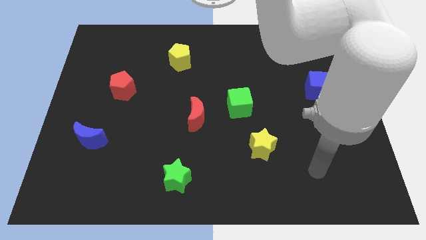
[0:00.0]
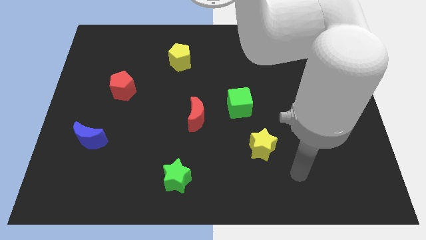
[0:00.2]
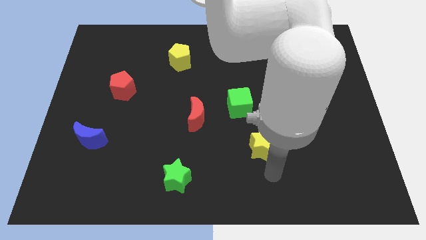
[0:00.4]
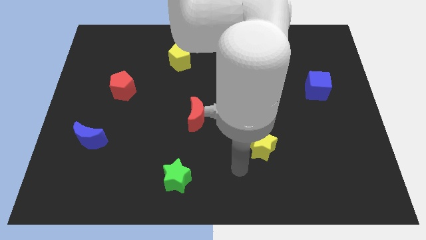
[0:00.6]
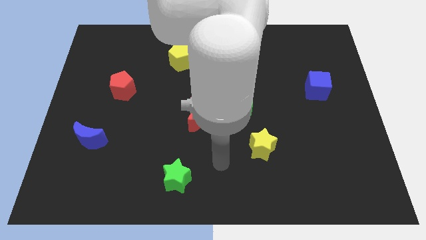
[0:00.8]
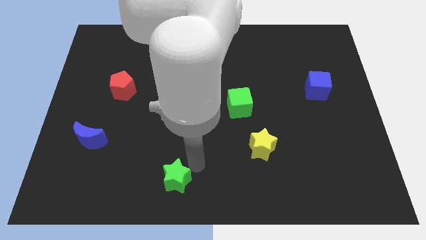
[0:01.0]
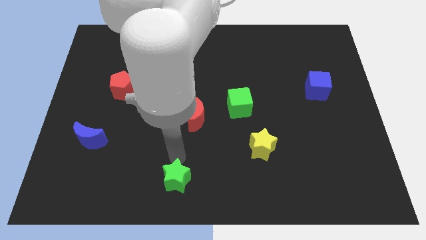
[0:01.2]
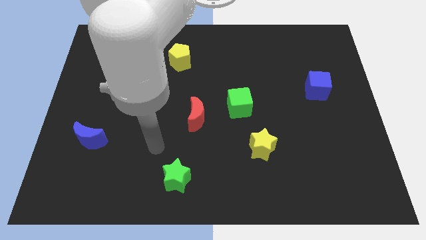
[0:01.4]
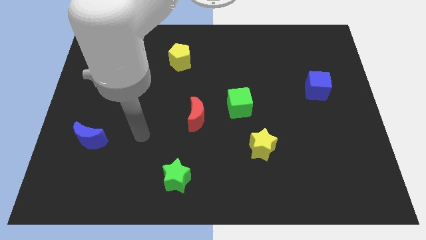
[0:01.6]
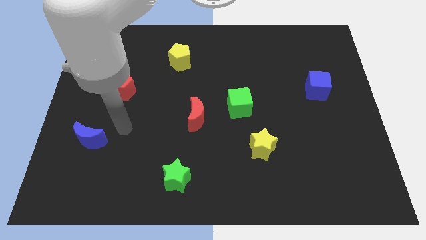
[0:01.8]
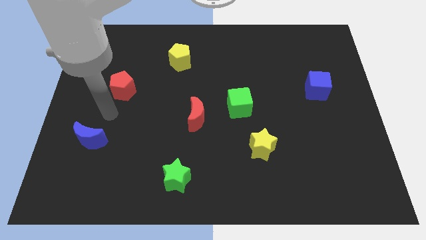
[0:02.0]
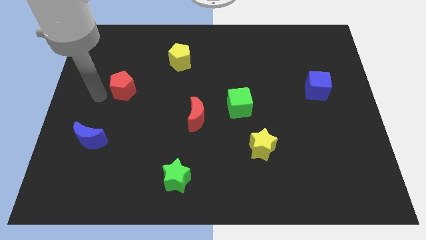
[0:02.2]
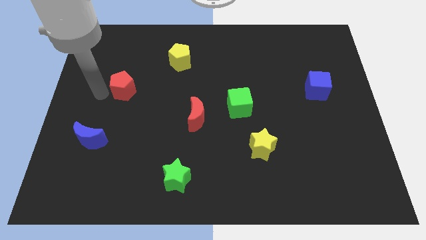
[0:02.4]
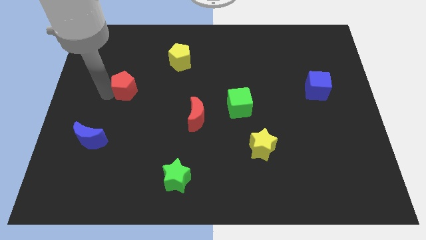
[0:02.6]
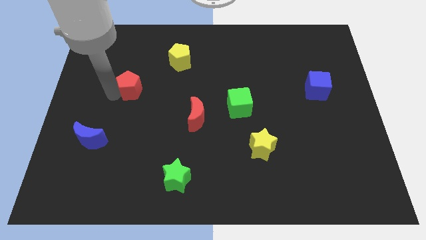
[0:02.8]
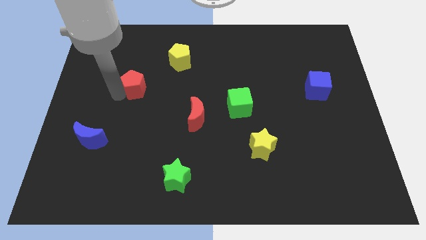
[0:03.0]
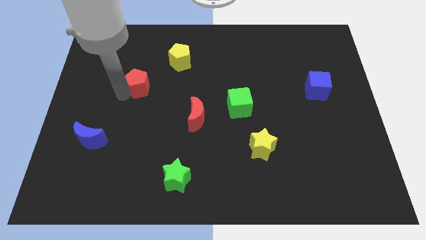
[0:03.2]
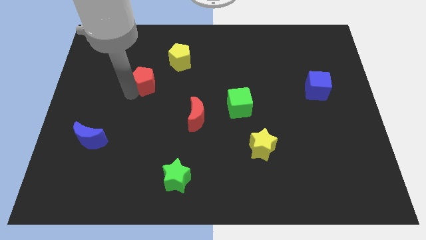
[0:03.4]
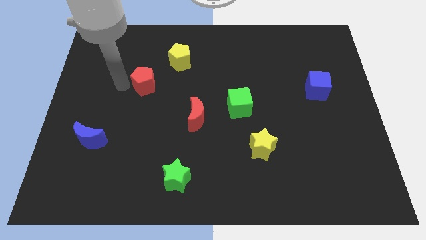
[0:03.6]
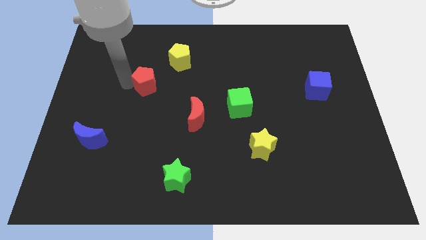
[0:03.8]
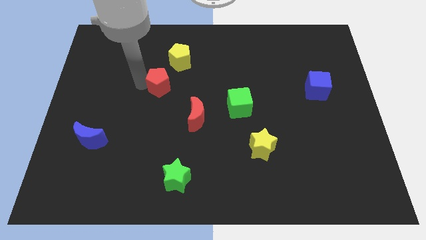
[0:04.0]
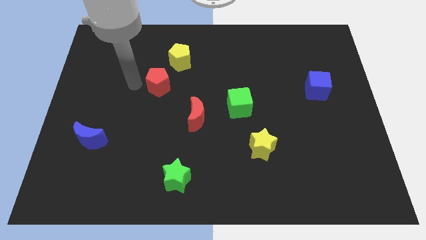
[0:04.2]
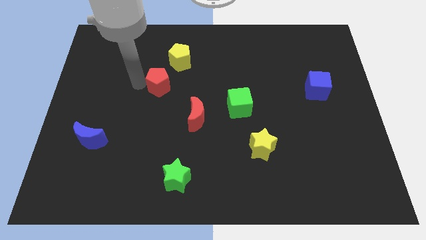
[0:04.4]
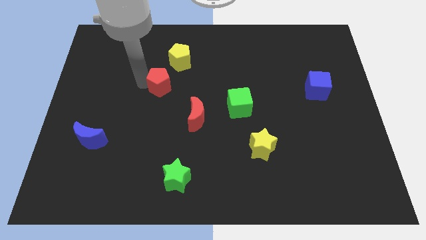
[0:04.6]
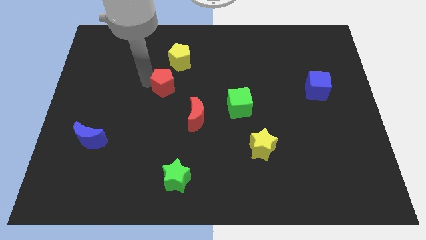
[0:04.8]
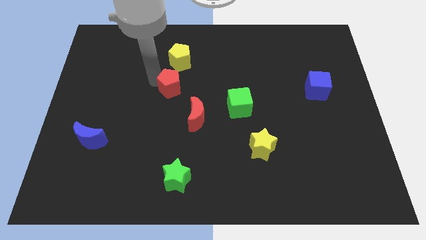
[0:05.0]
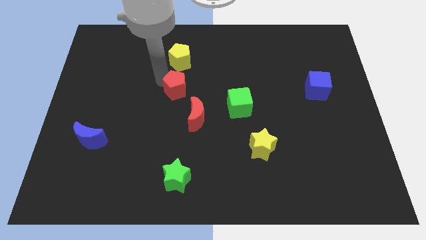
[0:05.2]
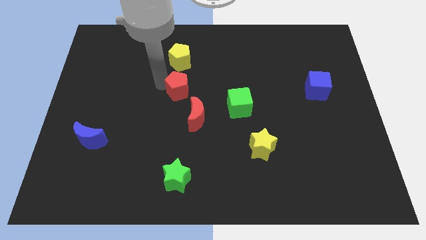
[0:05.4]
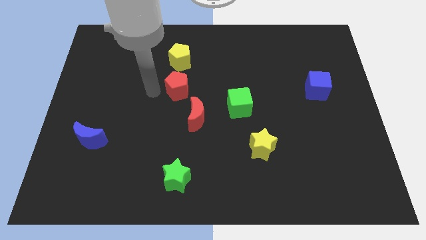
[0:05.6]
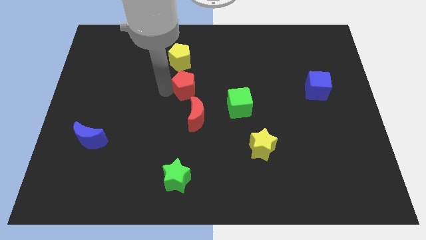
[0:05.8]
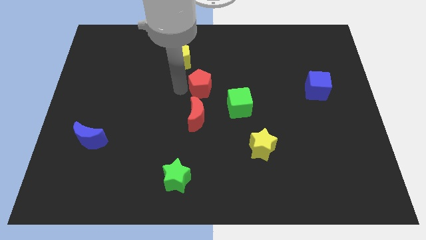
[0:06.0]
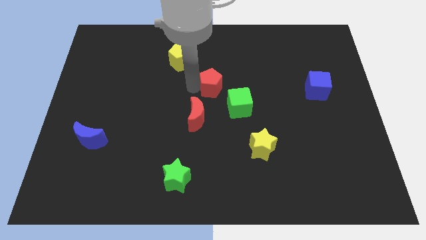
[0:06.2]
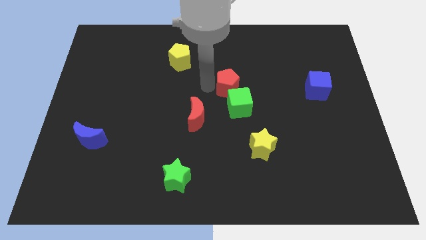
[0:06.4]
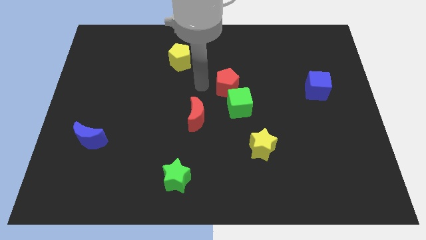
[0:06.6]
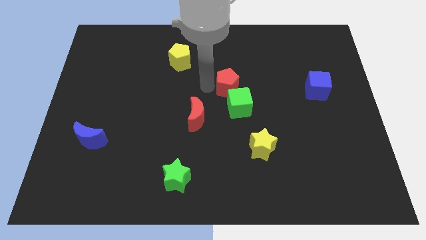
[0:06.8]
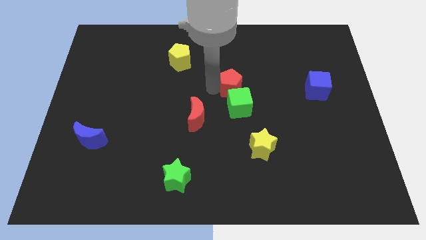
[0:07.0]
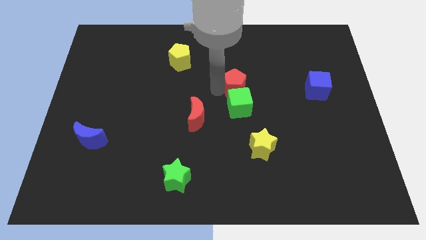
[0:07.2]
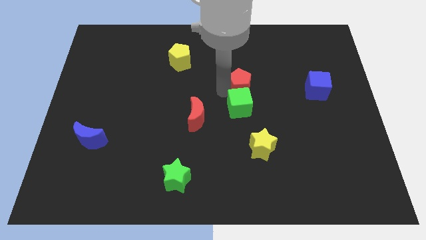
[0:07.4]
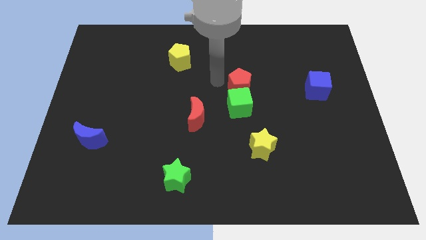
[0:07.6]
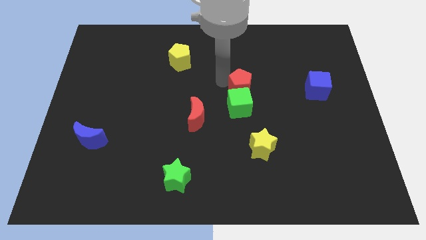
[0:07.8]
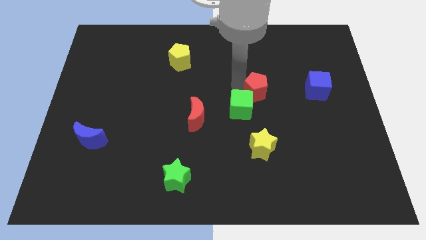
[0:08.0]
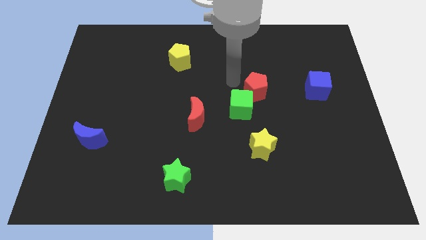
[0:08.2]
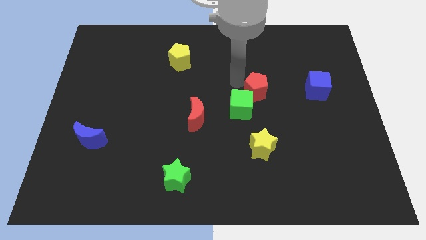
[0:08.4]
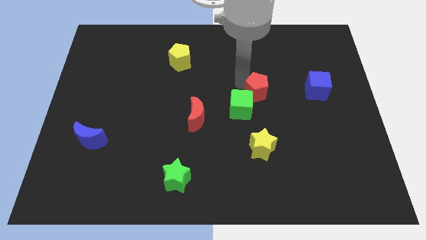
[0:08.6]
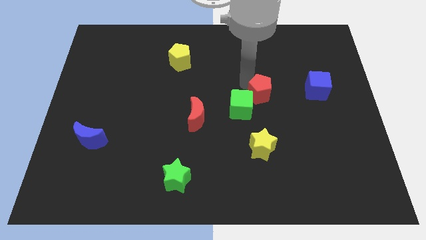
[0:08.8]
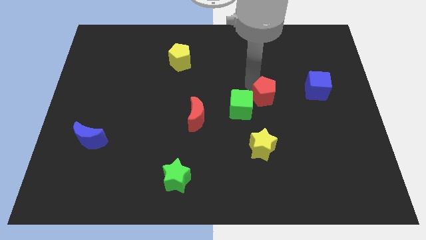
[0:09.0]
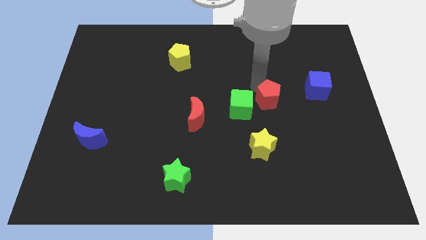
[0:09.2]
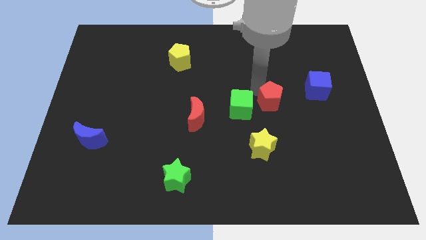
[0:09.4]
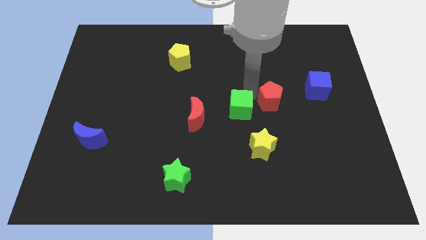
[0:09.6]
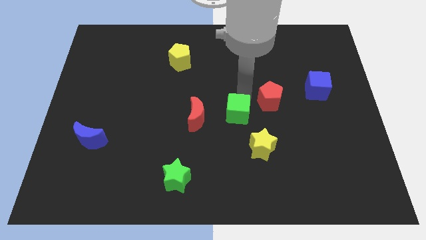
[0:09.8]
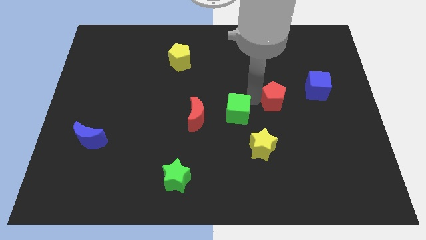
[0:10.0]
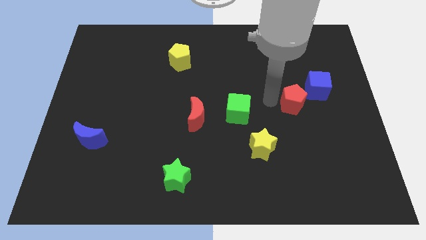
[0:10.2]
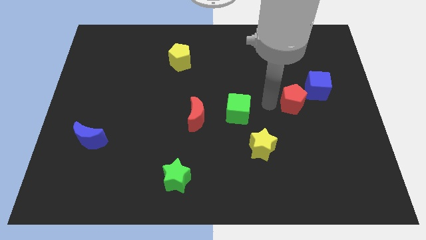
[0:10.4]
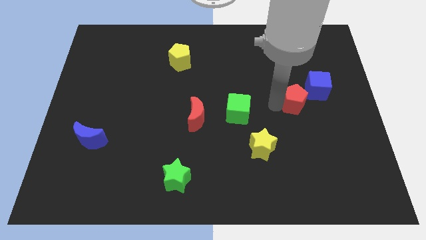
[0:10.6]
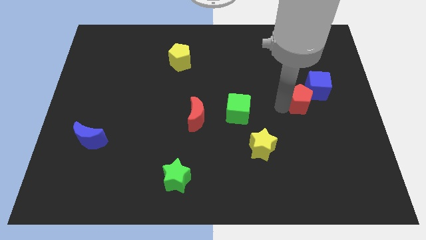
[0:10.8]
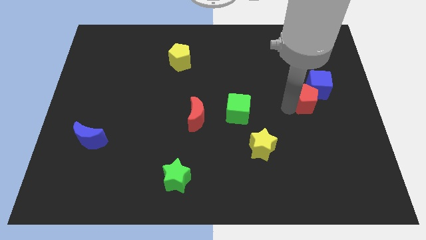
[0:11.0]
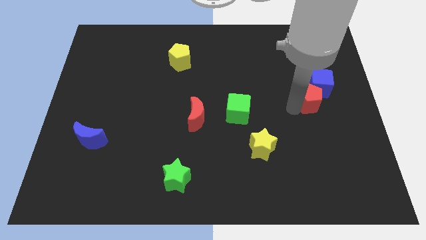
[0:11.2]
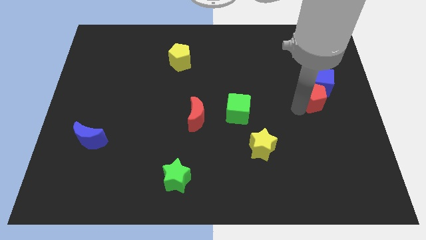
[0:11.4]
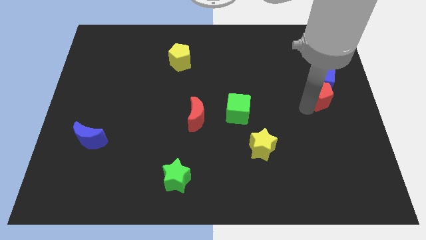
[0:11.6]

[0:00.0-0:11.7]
put the red pentagon to the center right

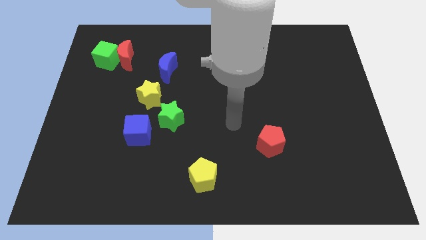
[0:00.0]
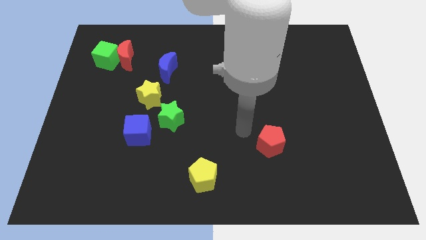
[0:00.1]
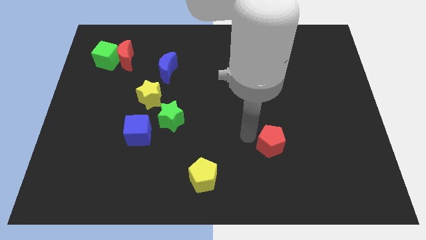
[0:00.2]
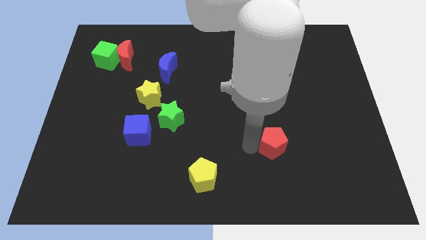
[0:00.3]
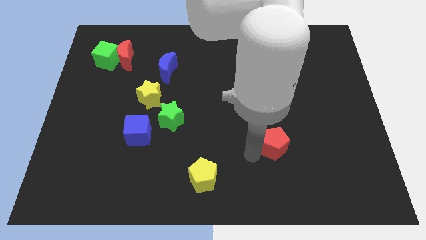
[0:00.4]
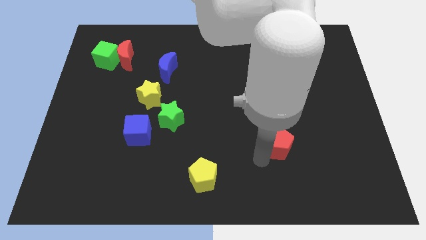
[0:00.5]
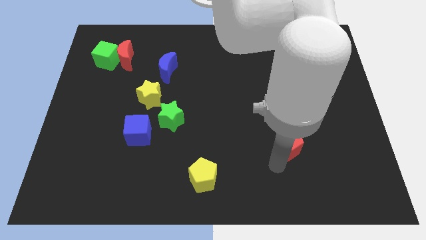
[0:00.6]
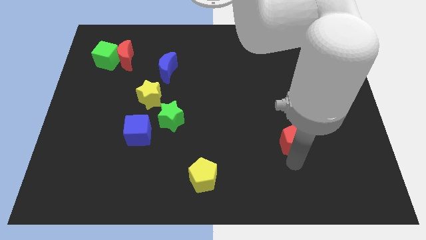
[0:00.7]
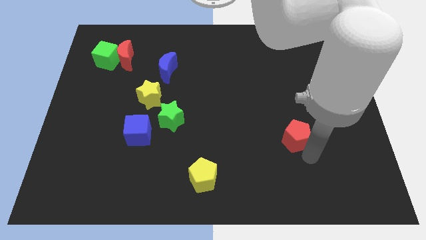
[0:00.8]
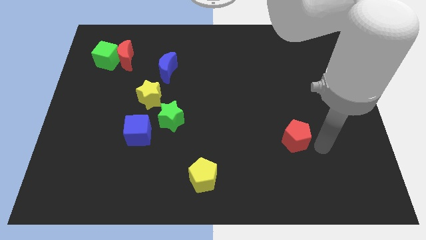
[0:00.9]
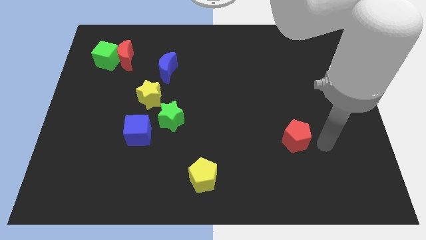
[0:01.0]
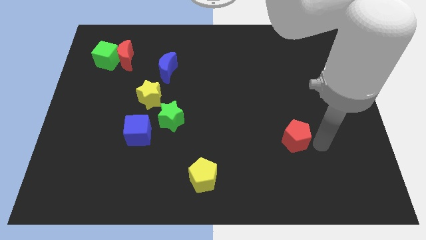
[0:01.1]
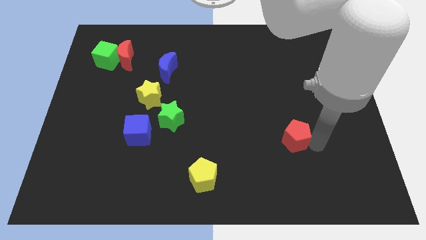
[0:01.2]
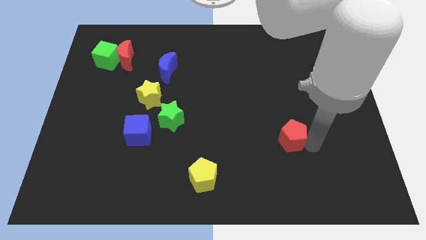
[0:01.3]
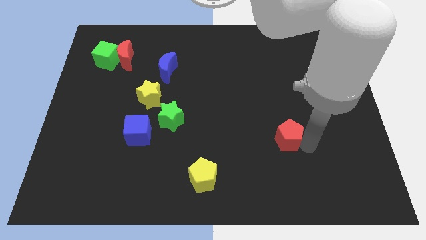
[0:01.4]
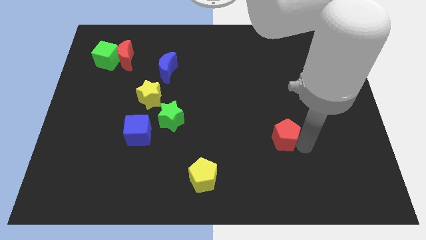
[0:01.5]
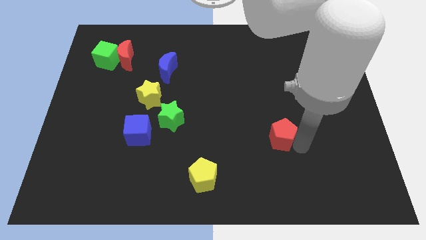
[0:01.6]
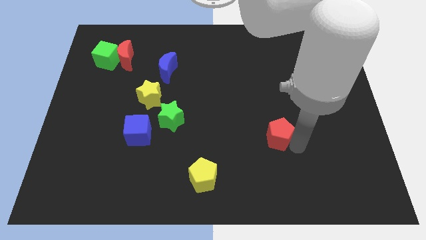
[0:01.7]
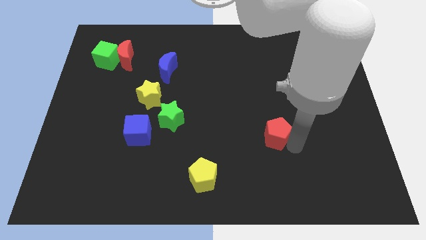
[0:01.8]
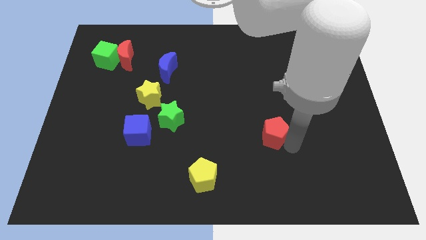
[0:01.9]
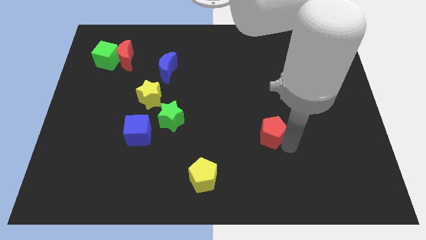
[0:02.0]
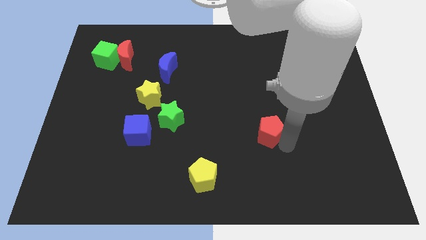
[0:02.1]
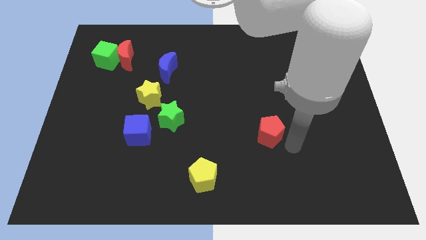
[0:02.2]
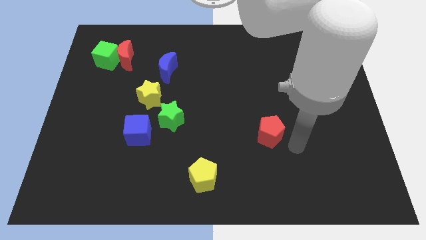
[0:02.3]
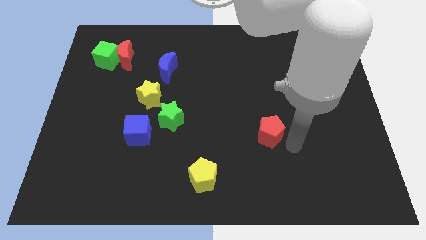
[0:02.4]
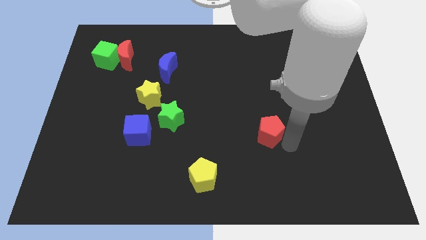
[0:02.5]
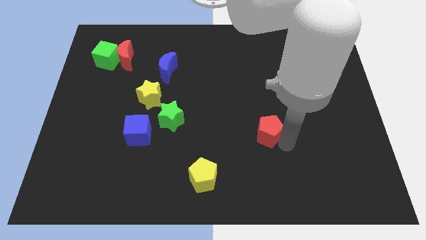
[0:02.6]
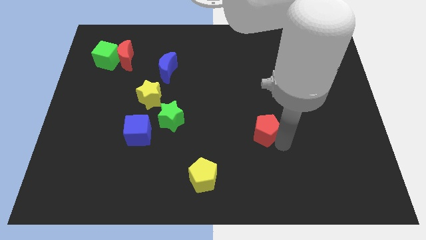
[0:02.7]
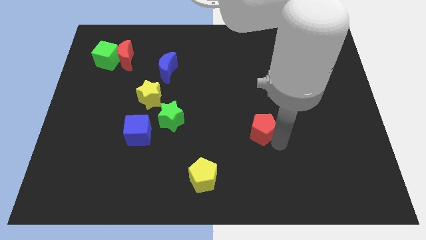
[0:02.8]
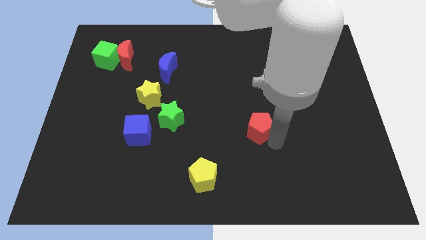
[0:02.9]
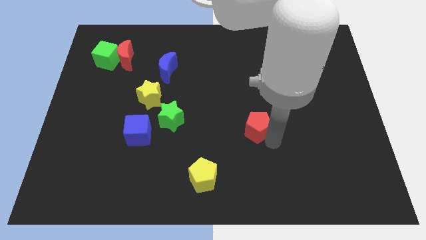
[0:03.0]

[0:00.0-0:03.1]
slide the red pentagon to the center
